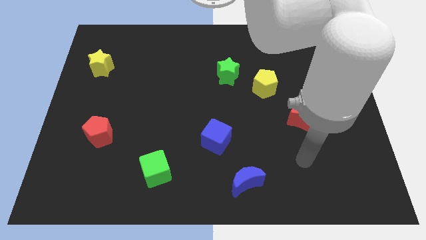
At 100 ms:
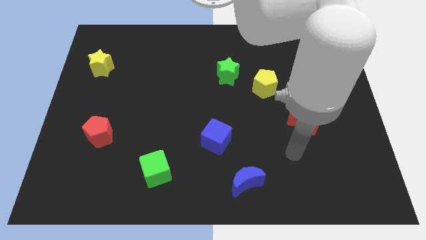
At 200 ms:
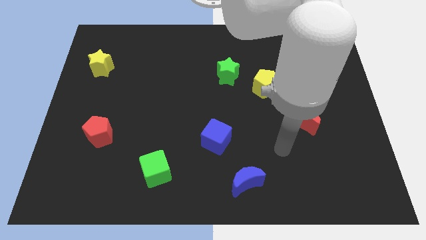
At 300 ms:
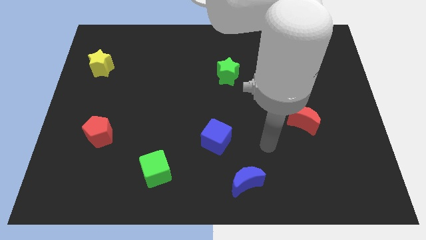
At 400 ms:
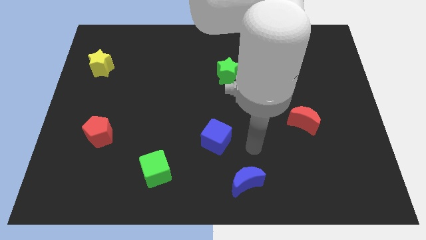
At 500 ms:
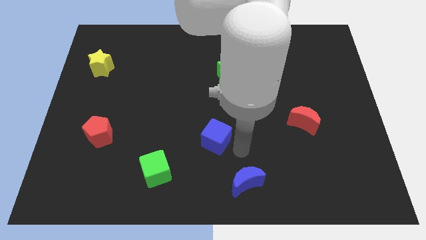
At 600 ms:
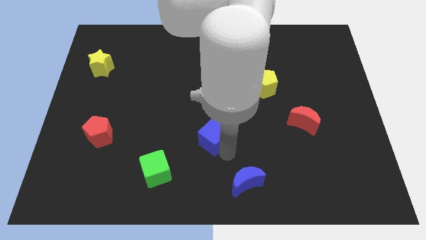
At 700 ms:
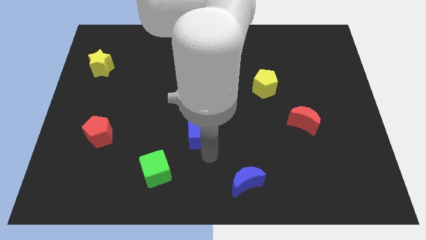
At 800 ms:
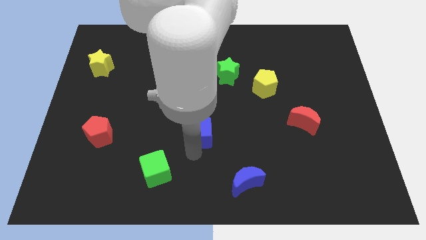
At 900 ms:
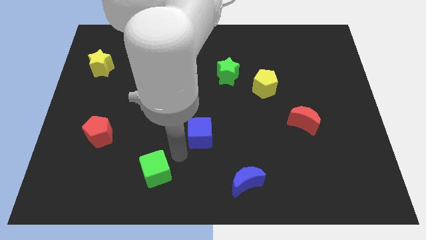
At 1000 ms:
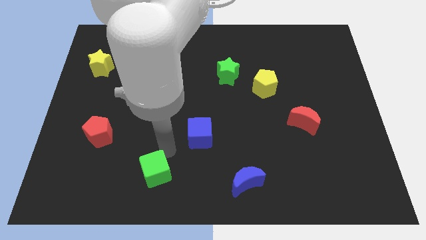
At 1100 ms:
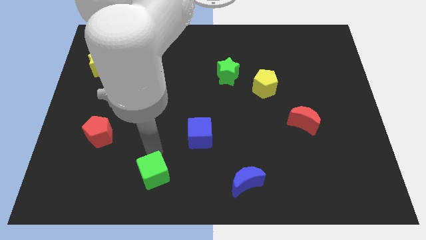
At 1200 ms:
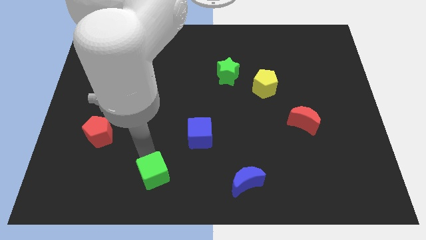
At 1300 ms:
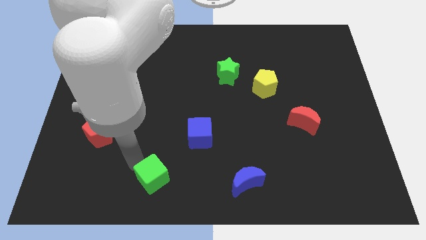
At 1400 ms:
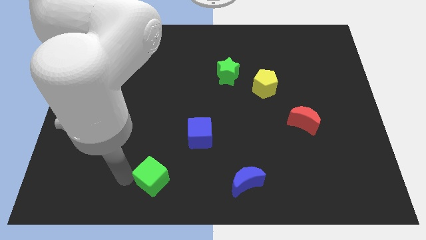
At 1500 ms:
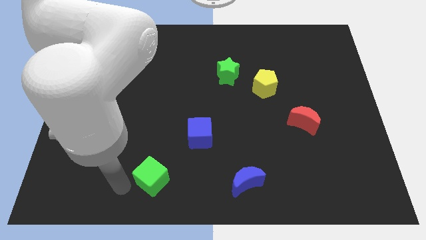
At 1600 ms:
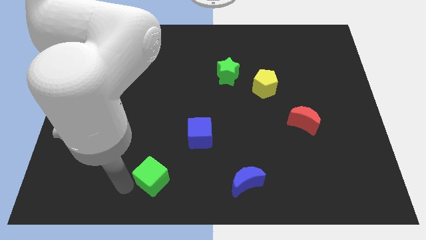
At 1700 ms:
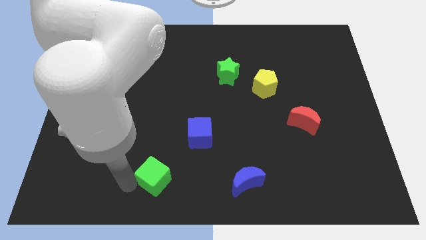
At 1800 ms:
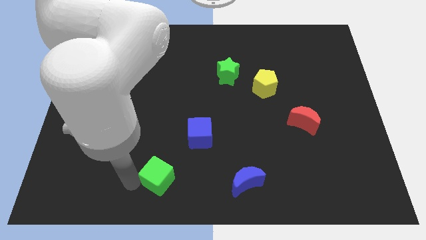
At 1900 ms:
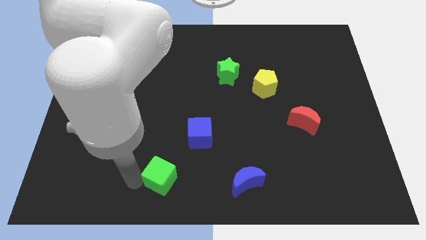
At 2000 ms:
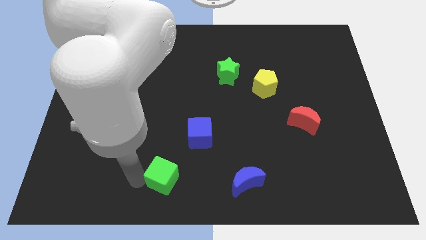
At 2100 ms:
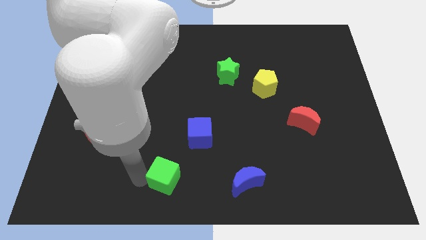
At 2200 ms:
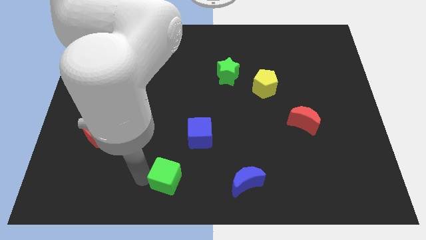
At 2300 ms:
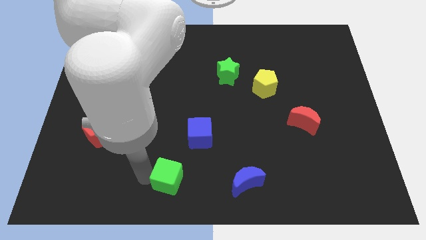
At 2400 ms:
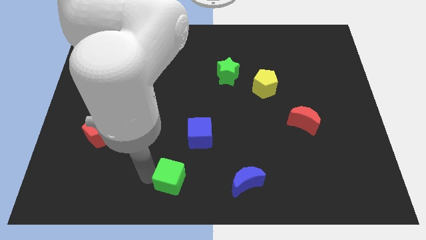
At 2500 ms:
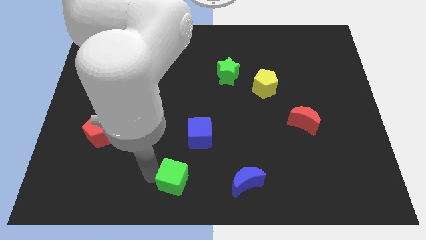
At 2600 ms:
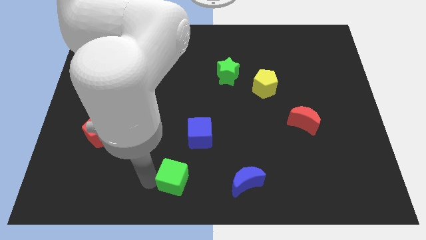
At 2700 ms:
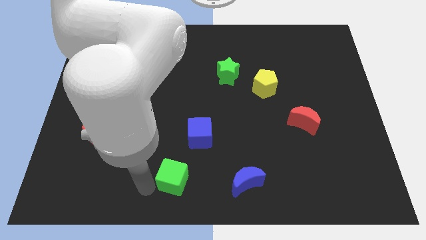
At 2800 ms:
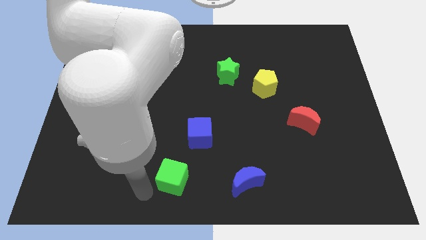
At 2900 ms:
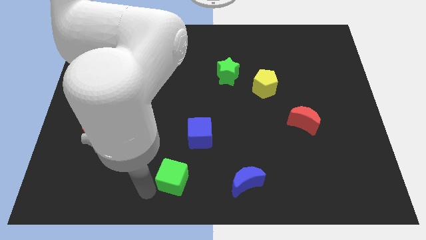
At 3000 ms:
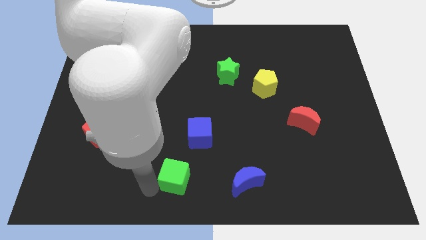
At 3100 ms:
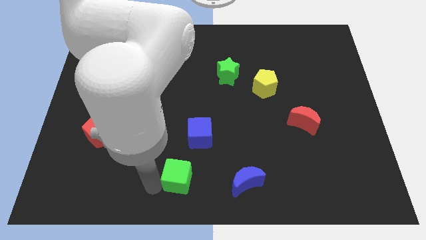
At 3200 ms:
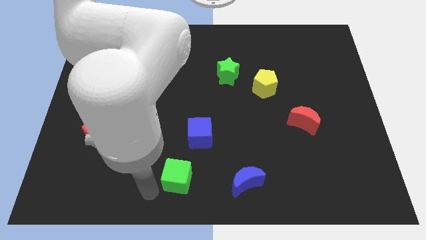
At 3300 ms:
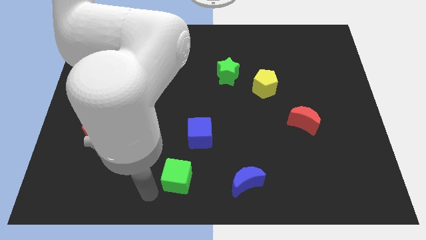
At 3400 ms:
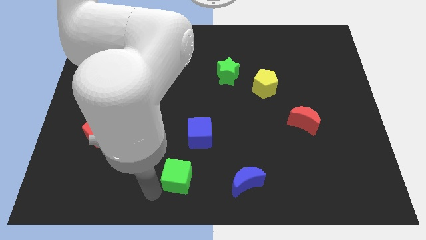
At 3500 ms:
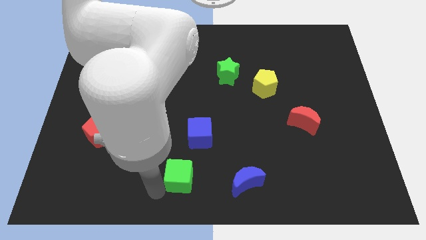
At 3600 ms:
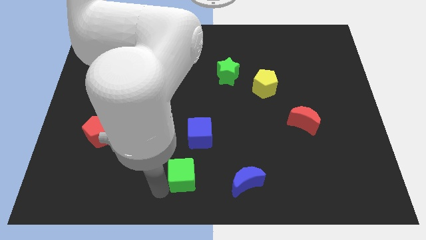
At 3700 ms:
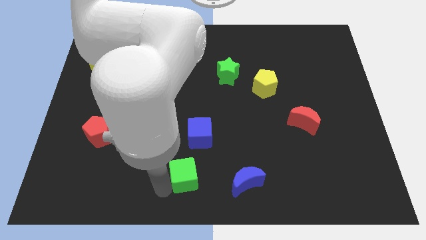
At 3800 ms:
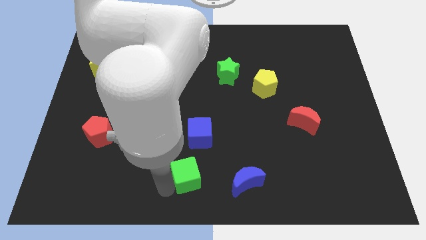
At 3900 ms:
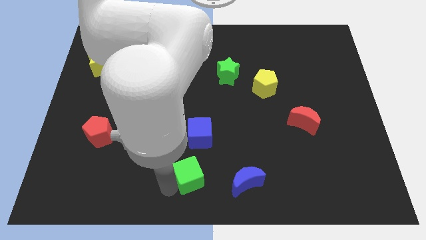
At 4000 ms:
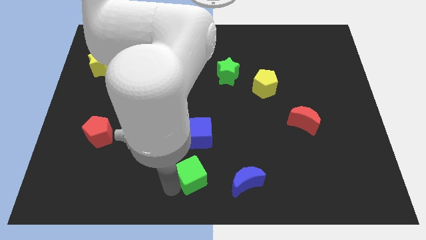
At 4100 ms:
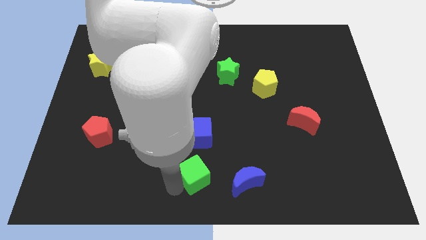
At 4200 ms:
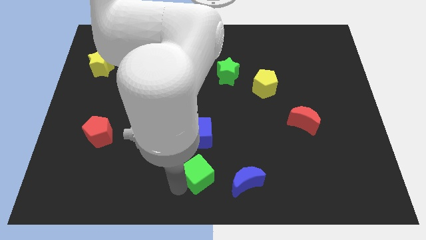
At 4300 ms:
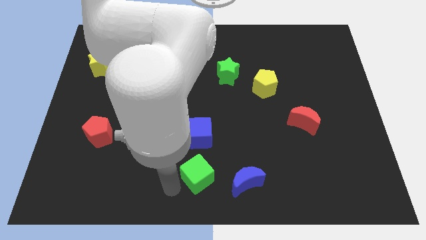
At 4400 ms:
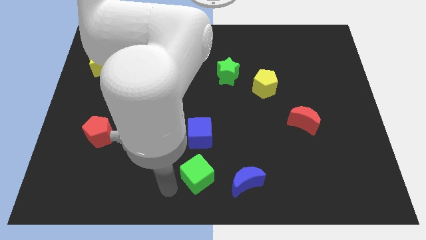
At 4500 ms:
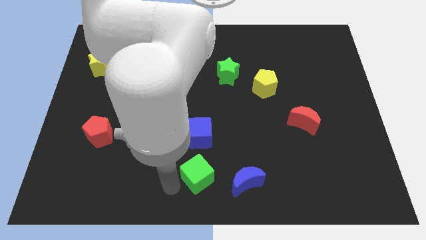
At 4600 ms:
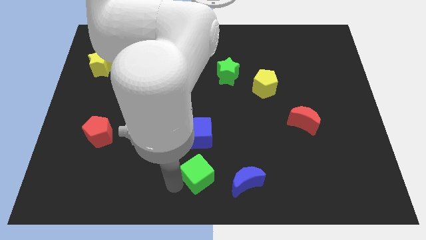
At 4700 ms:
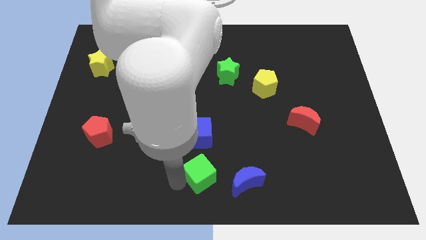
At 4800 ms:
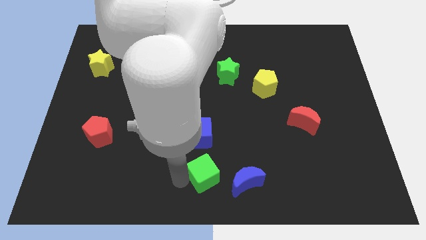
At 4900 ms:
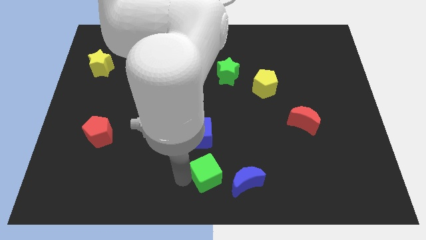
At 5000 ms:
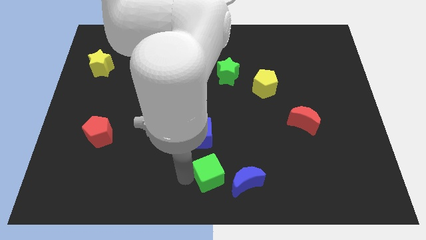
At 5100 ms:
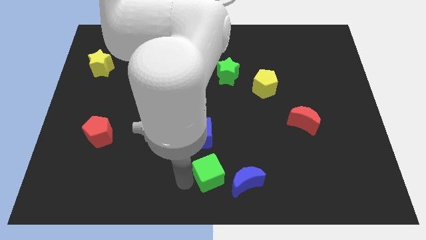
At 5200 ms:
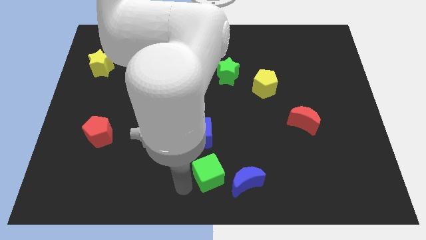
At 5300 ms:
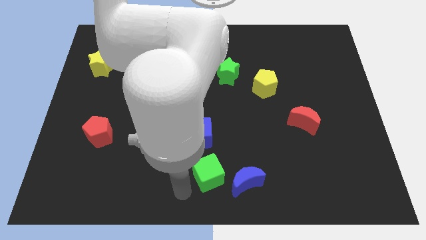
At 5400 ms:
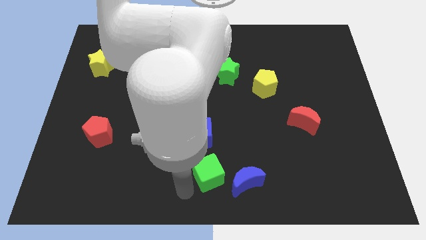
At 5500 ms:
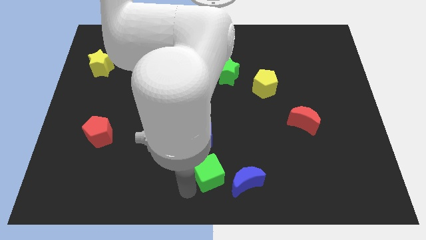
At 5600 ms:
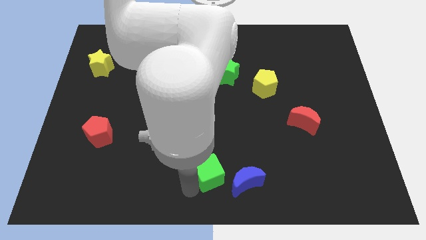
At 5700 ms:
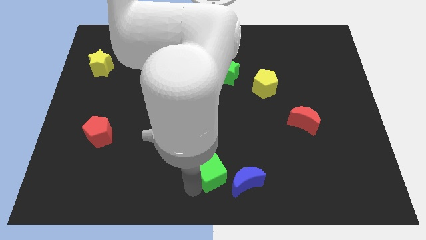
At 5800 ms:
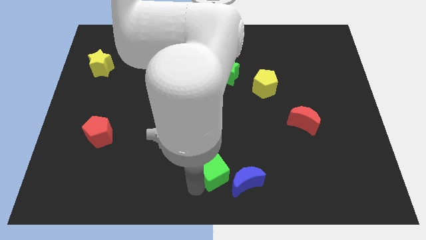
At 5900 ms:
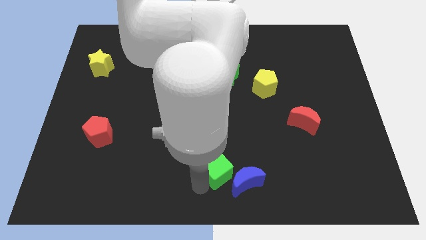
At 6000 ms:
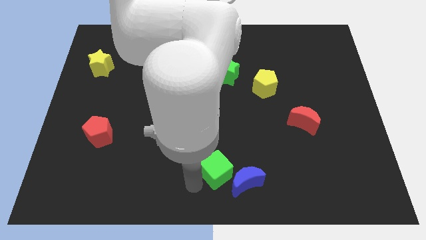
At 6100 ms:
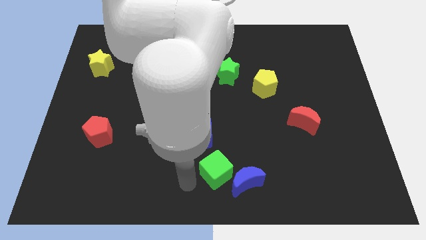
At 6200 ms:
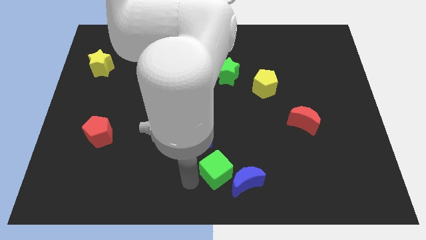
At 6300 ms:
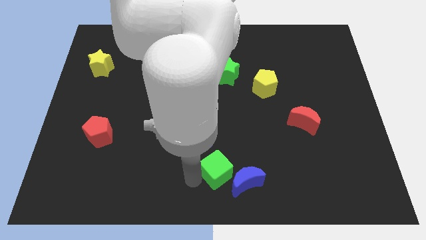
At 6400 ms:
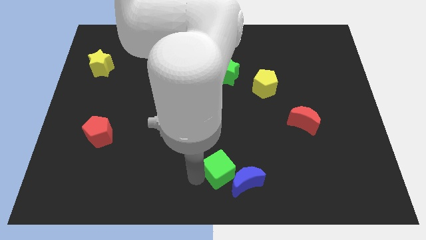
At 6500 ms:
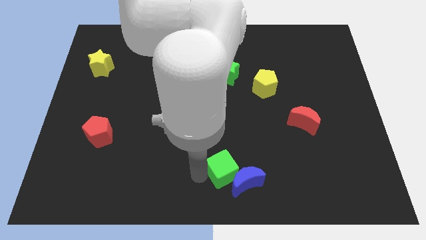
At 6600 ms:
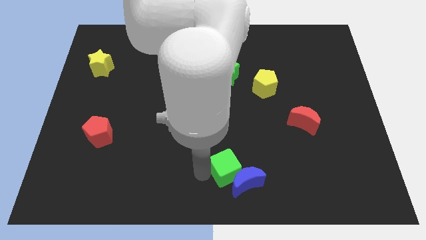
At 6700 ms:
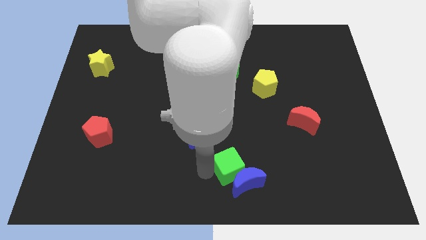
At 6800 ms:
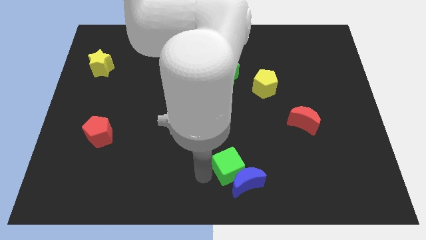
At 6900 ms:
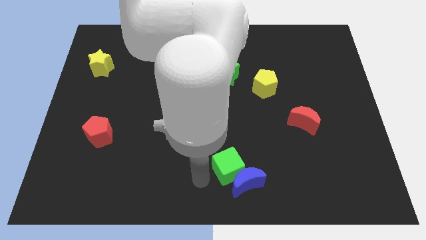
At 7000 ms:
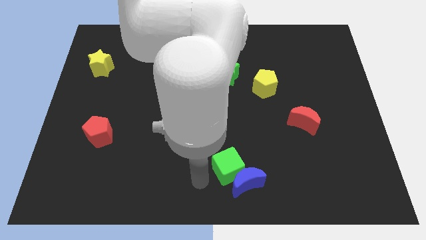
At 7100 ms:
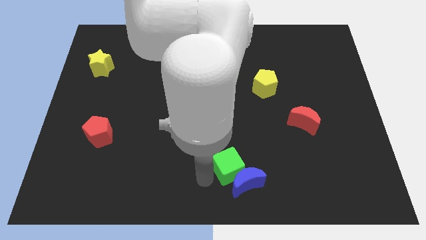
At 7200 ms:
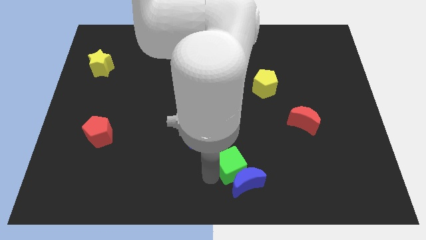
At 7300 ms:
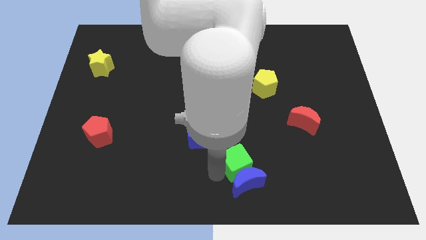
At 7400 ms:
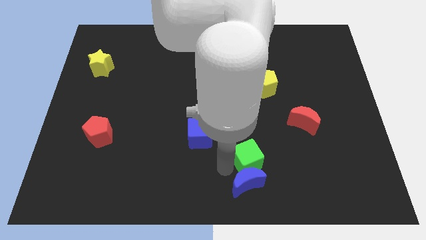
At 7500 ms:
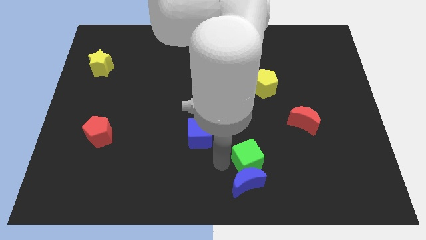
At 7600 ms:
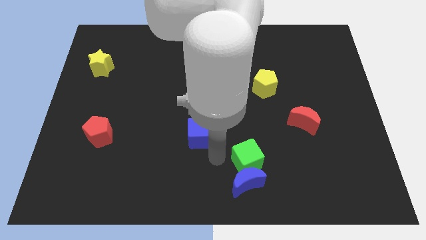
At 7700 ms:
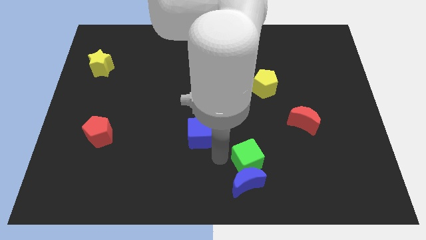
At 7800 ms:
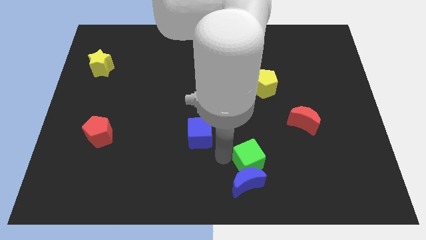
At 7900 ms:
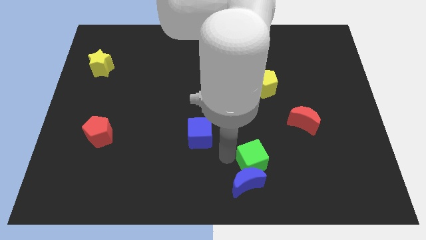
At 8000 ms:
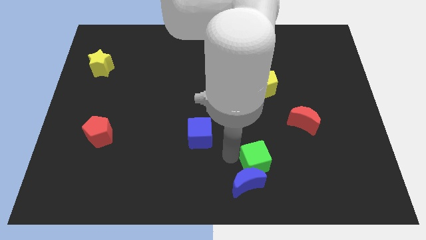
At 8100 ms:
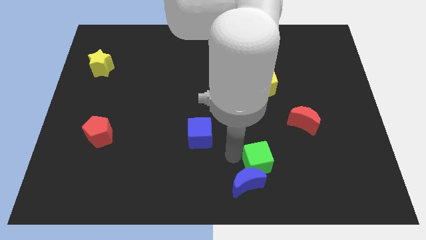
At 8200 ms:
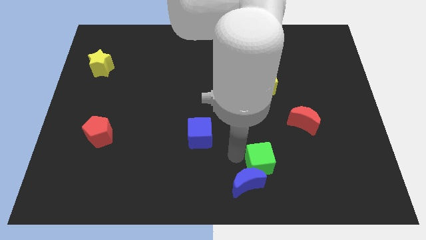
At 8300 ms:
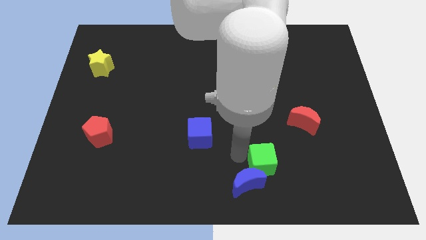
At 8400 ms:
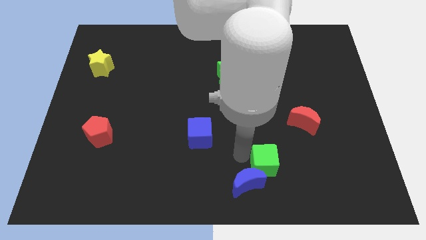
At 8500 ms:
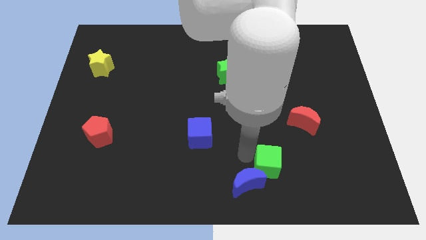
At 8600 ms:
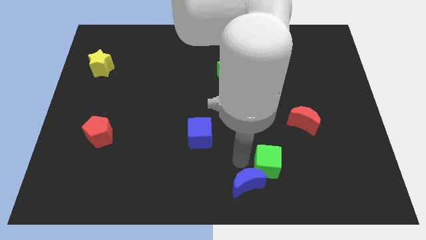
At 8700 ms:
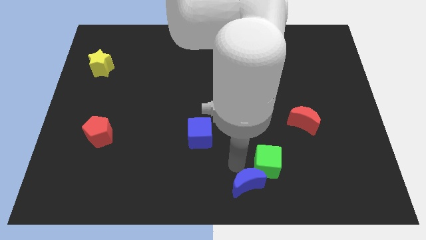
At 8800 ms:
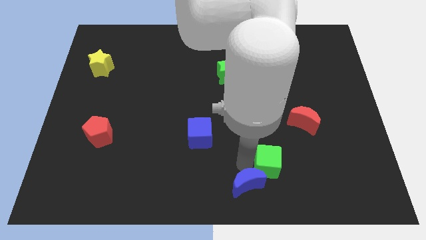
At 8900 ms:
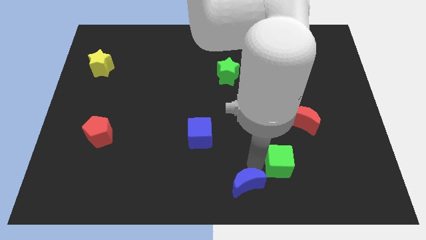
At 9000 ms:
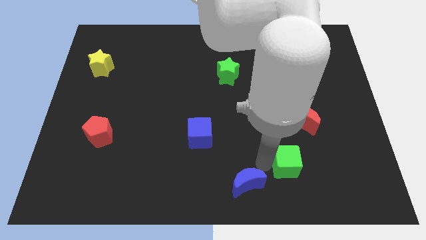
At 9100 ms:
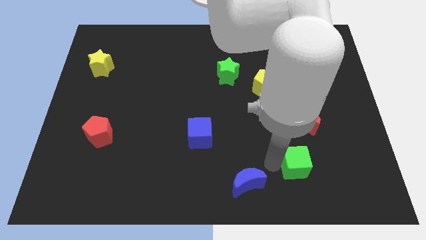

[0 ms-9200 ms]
put the green cube to the bottom of the red moon
